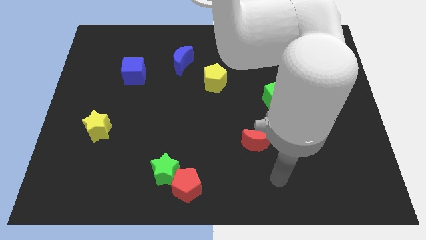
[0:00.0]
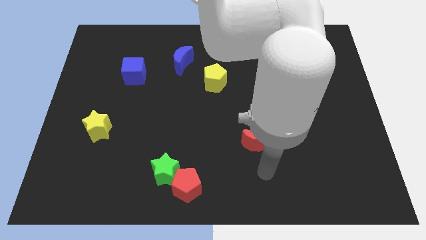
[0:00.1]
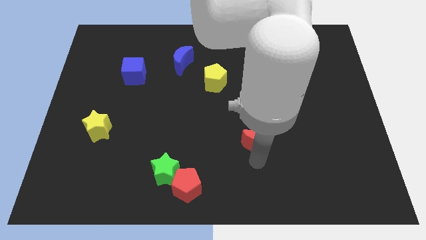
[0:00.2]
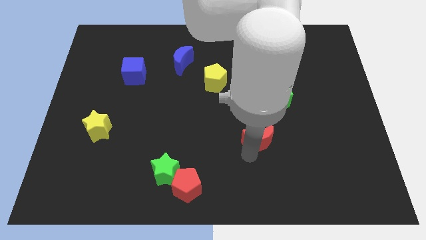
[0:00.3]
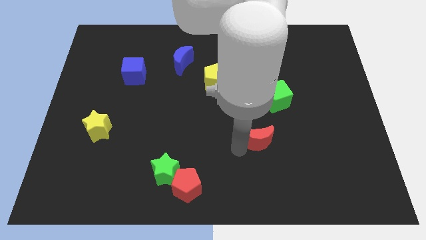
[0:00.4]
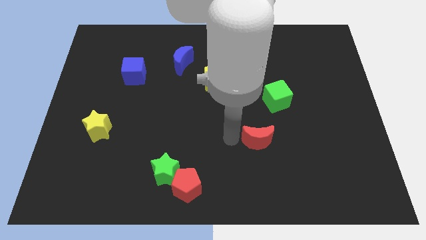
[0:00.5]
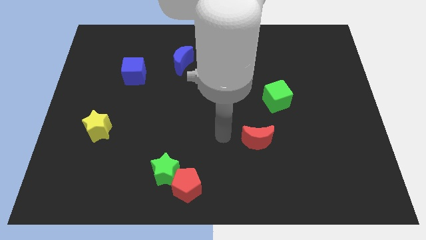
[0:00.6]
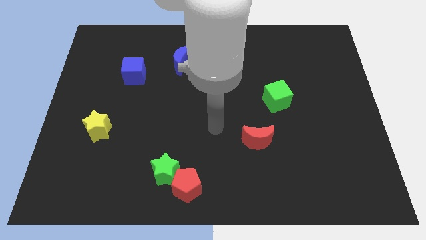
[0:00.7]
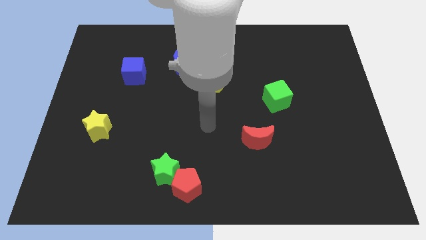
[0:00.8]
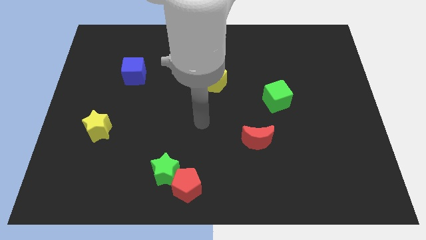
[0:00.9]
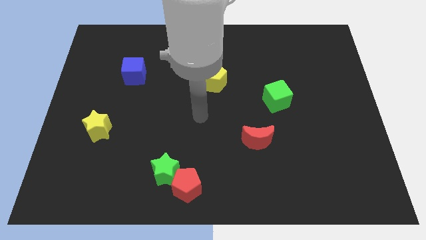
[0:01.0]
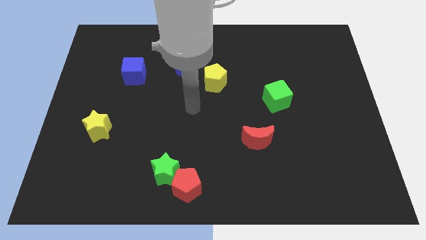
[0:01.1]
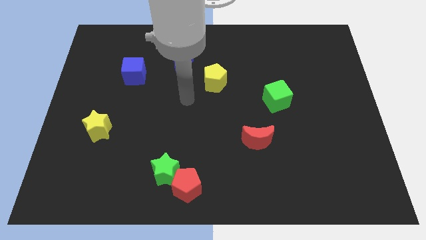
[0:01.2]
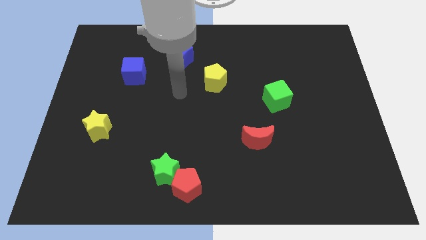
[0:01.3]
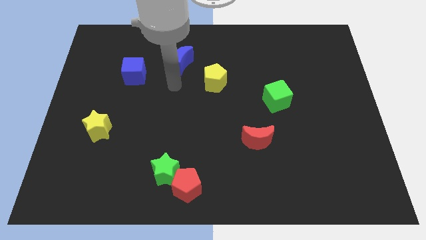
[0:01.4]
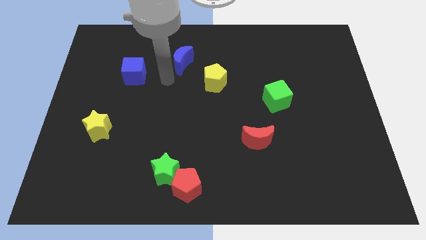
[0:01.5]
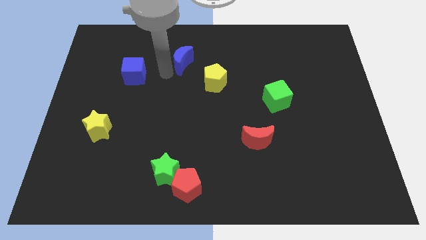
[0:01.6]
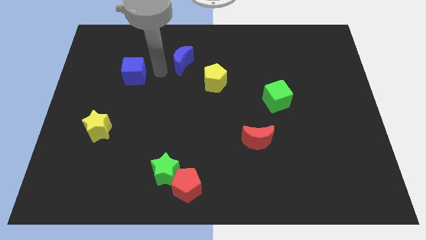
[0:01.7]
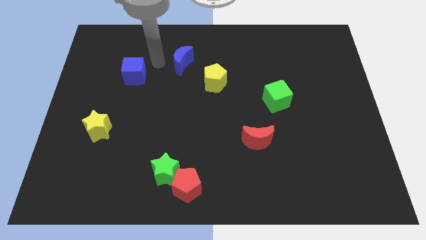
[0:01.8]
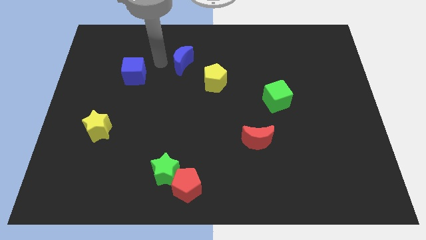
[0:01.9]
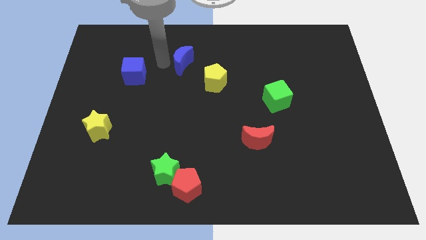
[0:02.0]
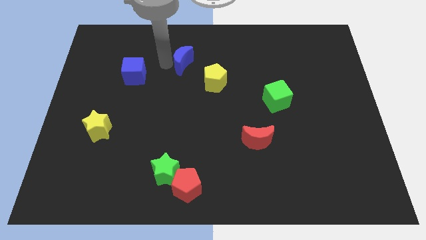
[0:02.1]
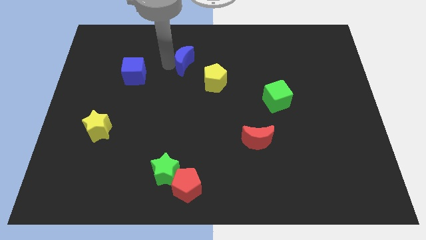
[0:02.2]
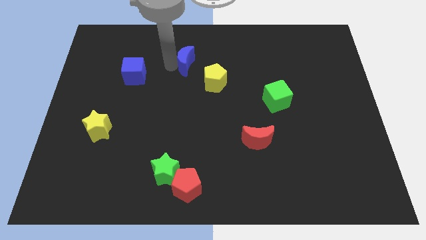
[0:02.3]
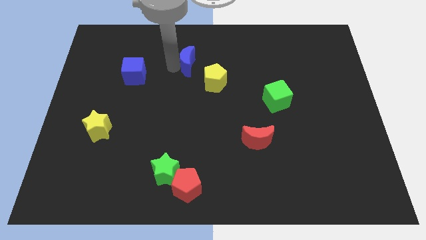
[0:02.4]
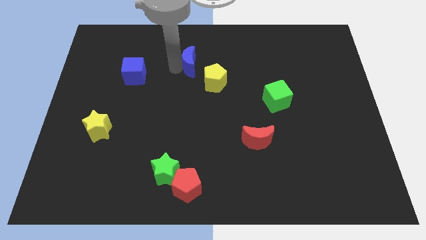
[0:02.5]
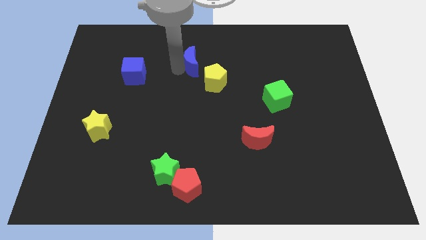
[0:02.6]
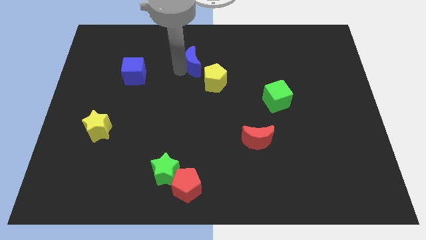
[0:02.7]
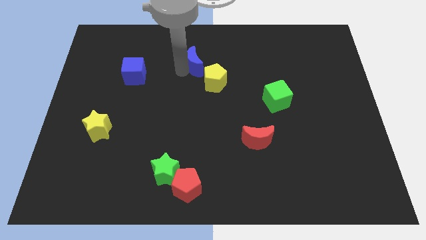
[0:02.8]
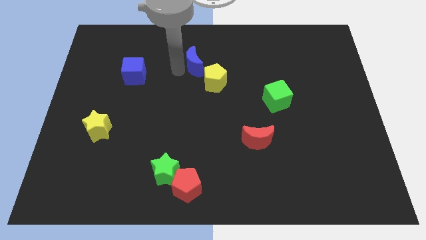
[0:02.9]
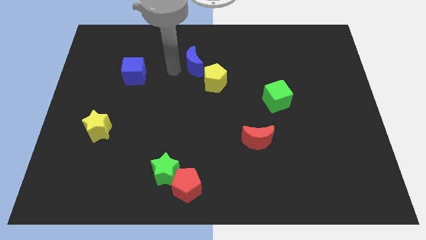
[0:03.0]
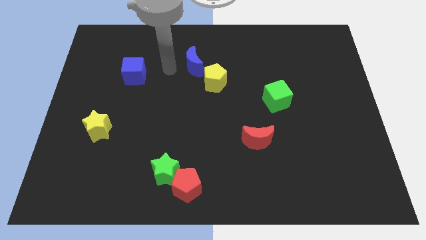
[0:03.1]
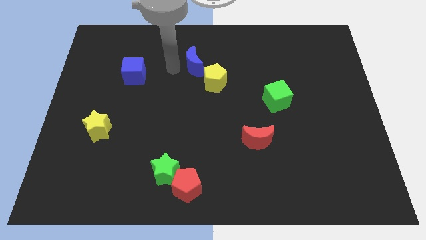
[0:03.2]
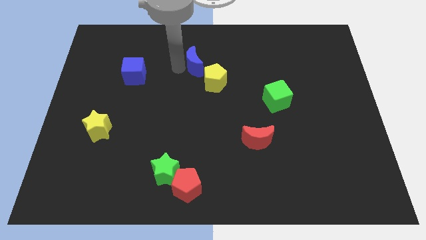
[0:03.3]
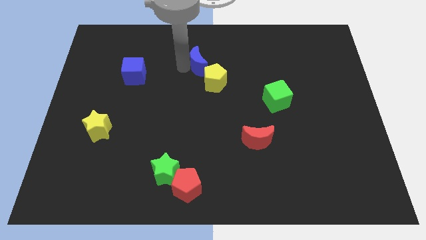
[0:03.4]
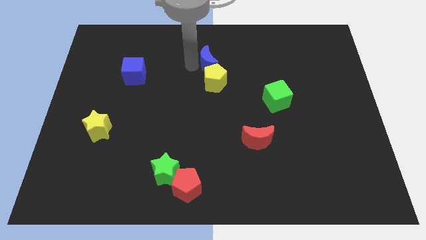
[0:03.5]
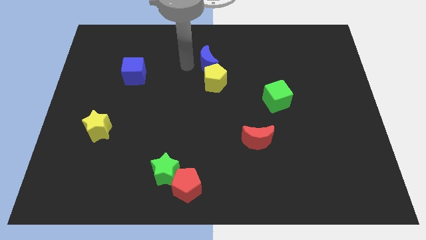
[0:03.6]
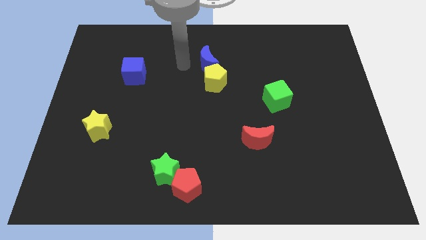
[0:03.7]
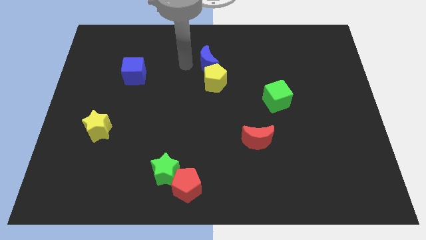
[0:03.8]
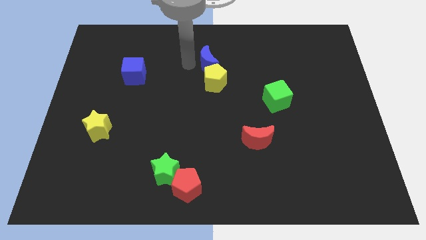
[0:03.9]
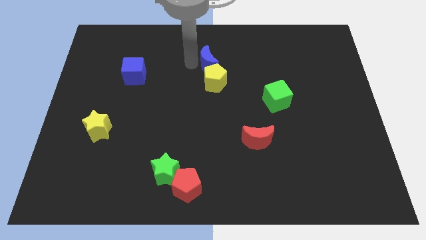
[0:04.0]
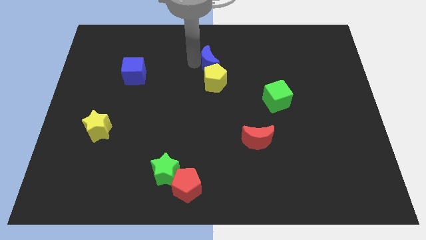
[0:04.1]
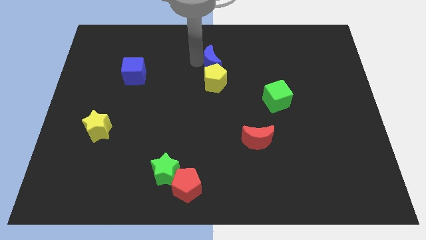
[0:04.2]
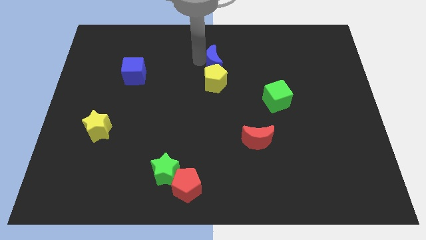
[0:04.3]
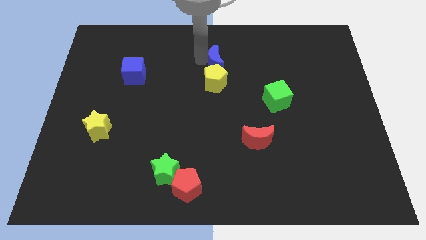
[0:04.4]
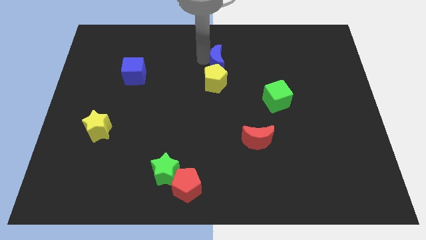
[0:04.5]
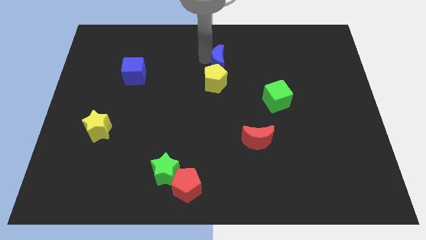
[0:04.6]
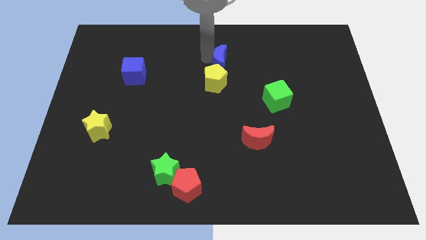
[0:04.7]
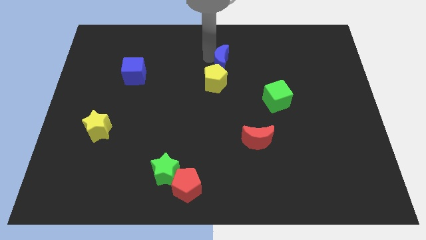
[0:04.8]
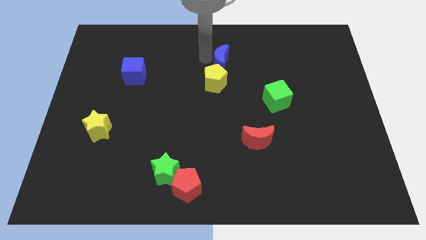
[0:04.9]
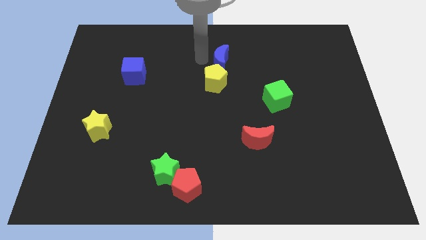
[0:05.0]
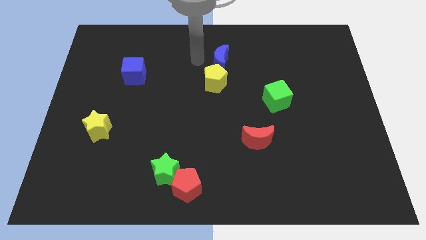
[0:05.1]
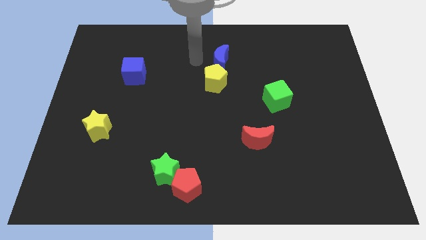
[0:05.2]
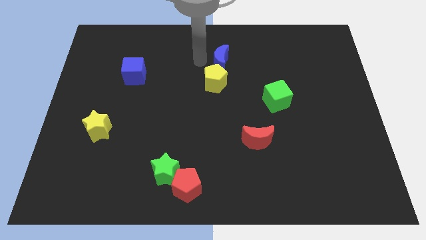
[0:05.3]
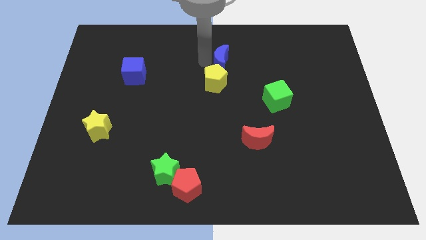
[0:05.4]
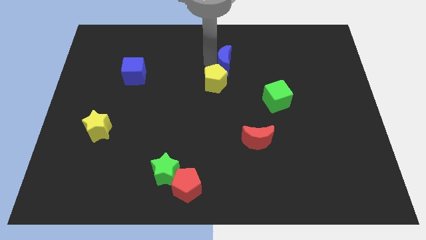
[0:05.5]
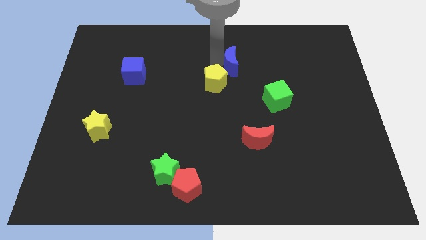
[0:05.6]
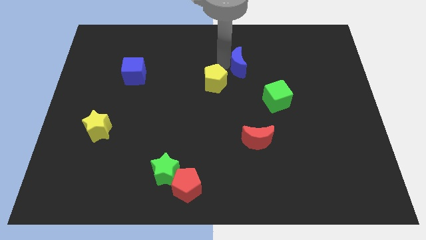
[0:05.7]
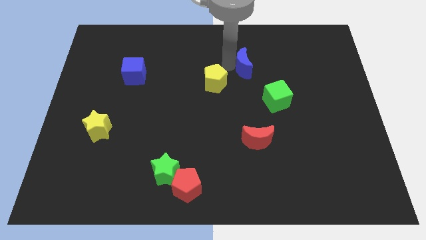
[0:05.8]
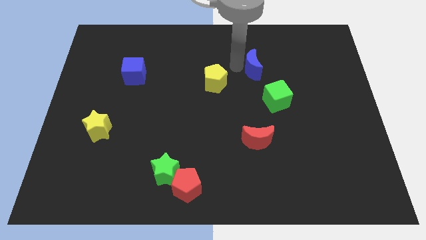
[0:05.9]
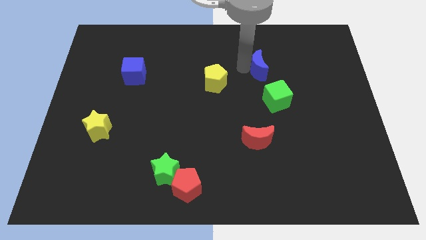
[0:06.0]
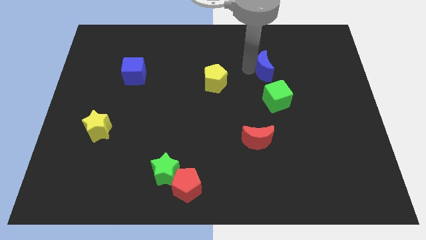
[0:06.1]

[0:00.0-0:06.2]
move the blue moon to the right

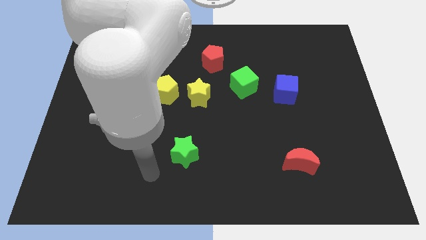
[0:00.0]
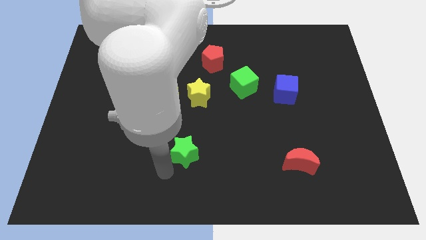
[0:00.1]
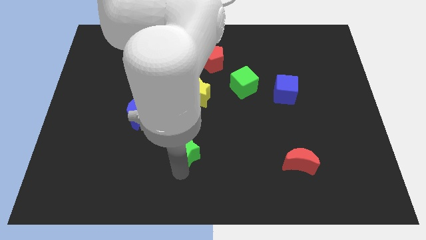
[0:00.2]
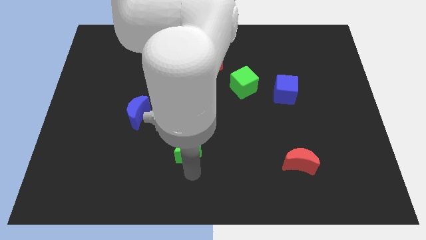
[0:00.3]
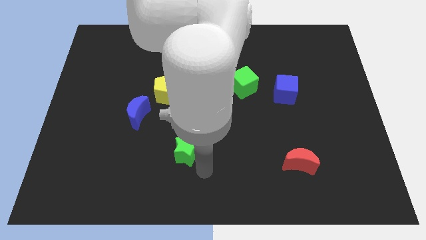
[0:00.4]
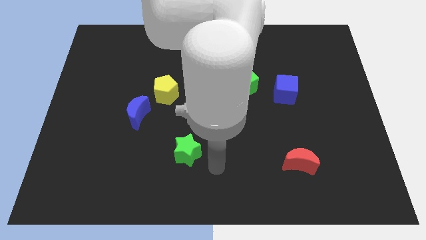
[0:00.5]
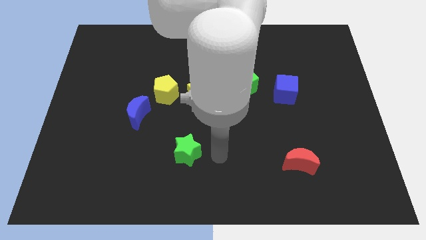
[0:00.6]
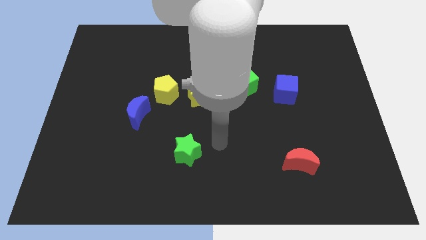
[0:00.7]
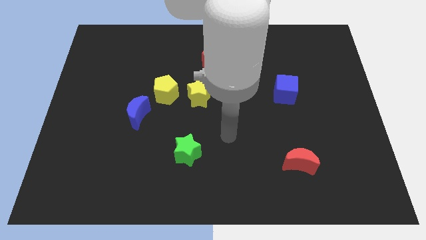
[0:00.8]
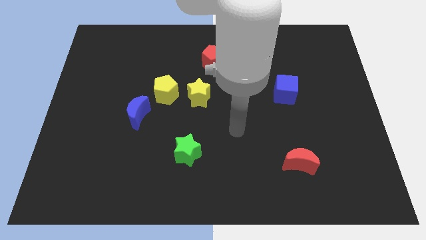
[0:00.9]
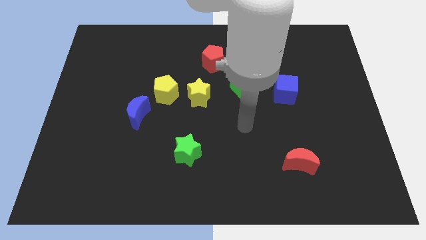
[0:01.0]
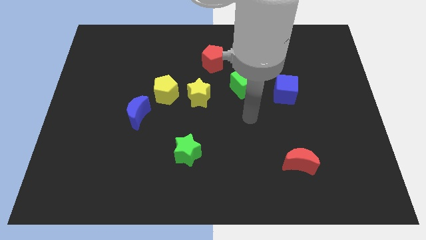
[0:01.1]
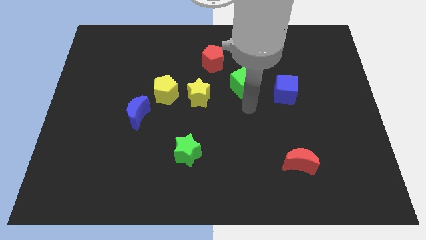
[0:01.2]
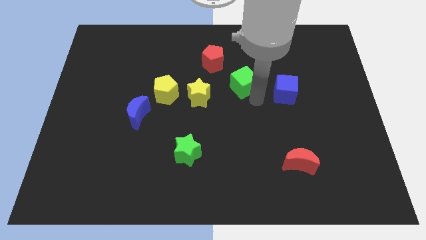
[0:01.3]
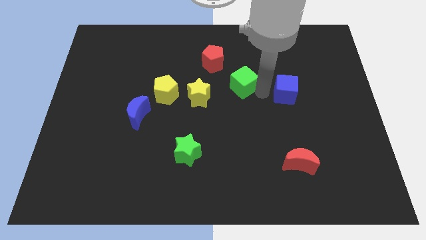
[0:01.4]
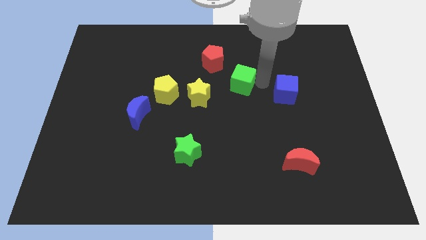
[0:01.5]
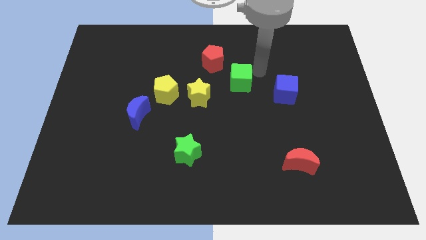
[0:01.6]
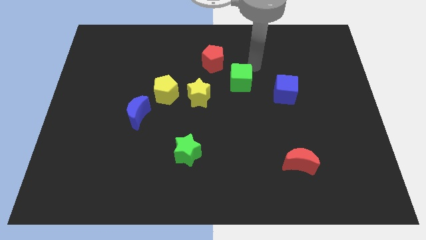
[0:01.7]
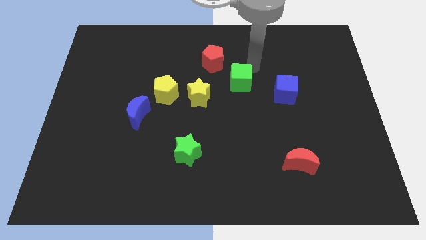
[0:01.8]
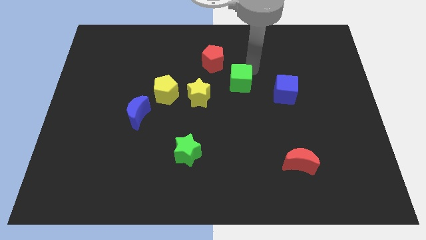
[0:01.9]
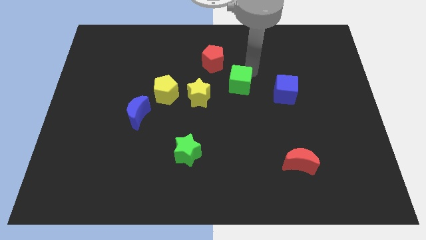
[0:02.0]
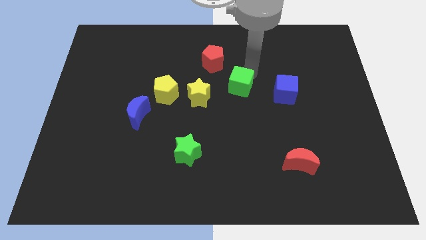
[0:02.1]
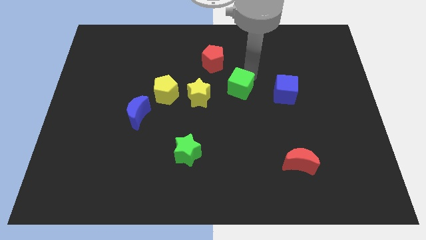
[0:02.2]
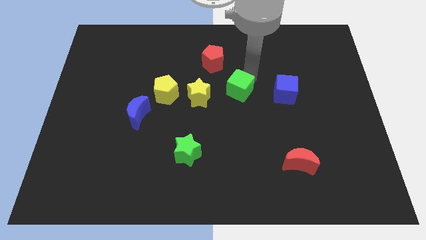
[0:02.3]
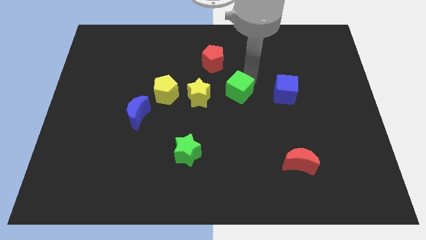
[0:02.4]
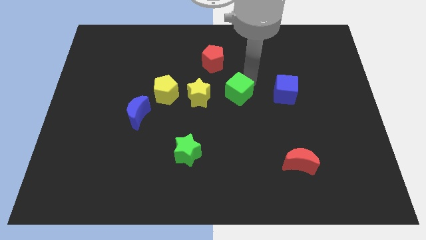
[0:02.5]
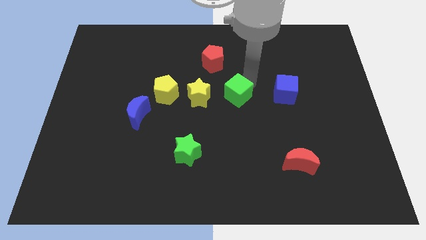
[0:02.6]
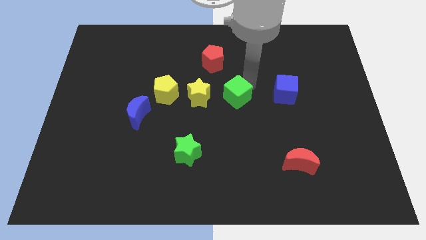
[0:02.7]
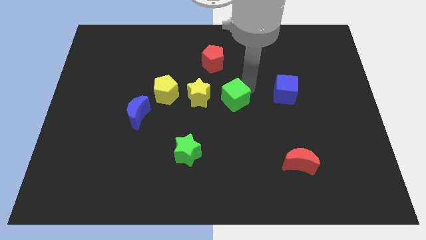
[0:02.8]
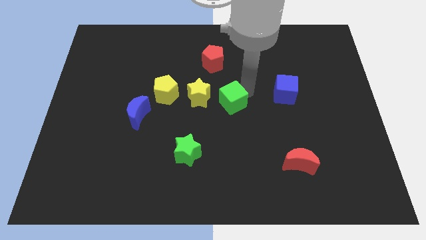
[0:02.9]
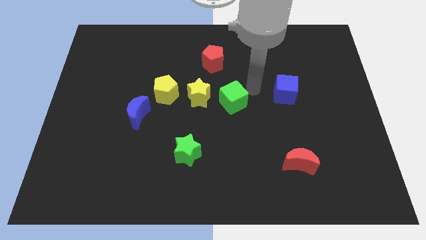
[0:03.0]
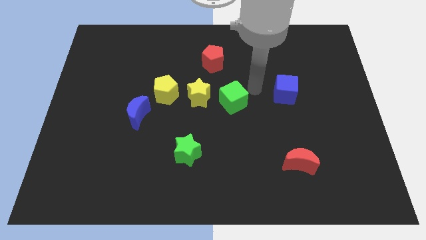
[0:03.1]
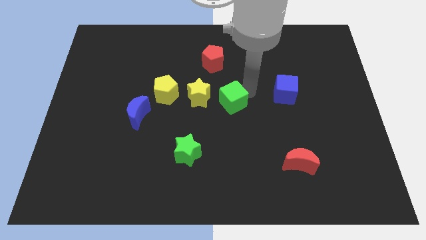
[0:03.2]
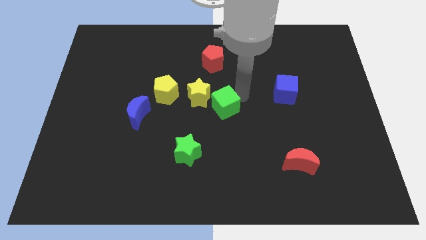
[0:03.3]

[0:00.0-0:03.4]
slightly move the green cube down and to the left
